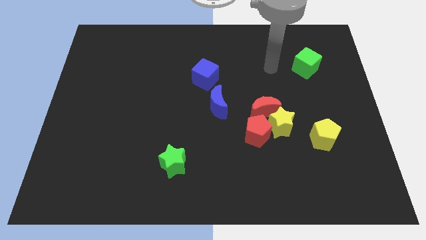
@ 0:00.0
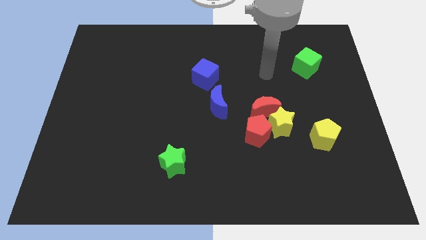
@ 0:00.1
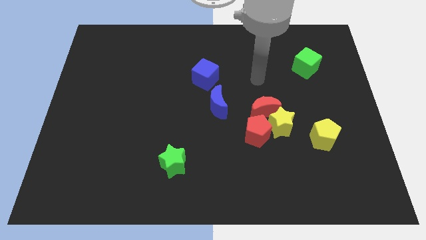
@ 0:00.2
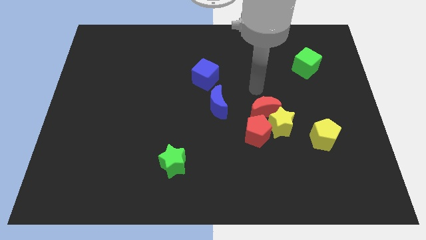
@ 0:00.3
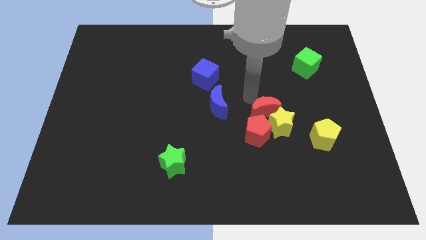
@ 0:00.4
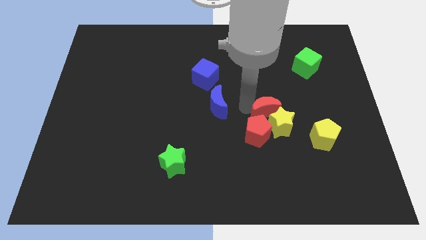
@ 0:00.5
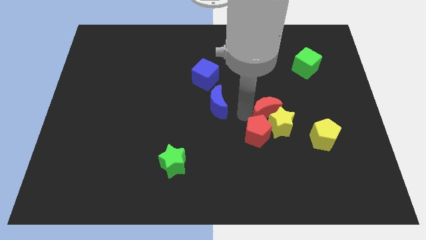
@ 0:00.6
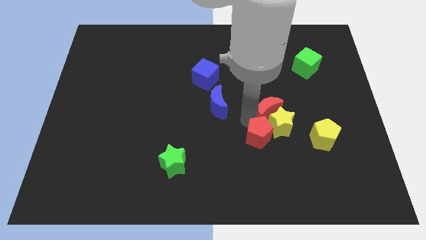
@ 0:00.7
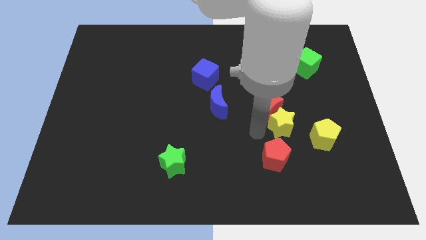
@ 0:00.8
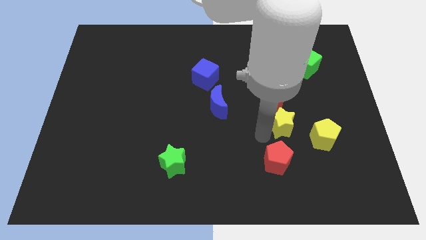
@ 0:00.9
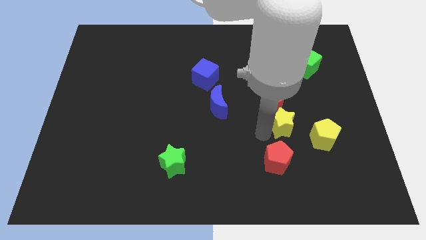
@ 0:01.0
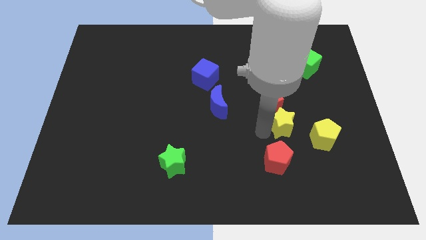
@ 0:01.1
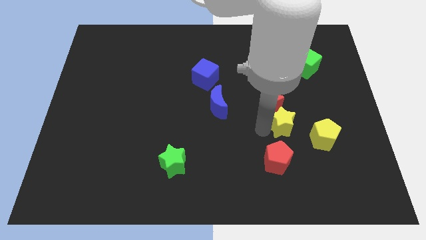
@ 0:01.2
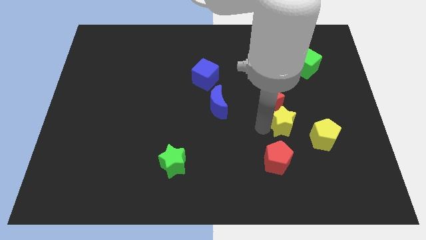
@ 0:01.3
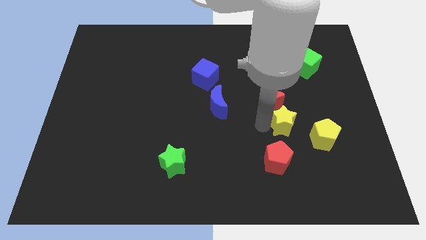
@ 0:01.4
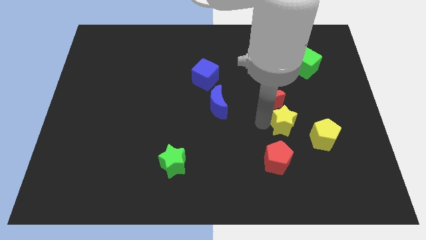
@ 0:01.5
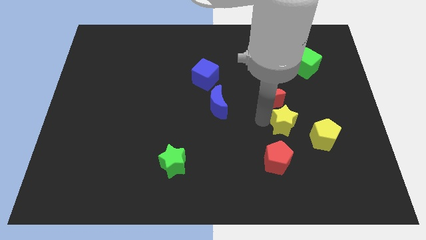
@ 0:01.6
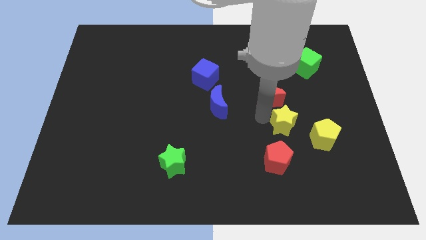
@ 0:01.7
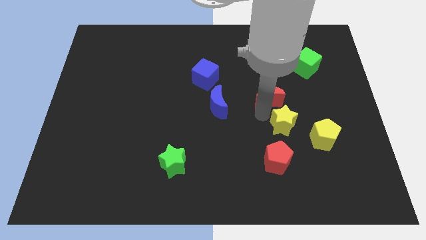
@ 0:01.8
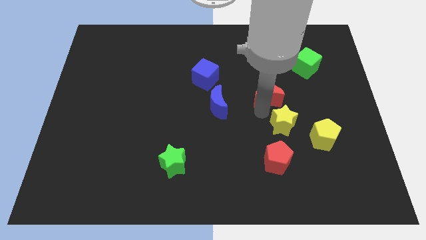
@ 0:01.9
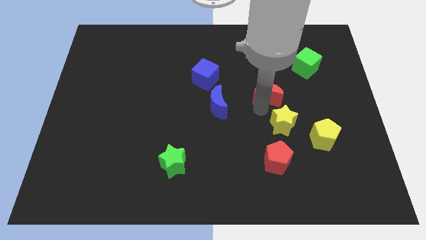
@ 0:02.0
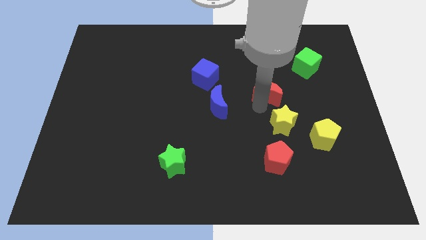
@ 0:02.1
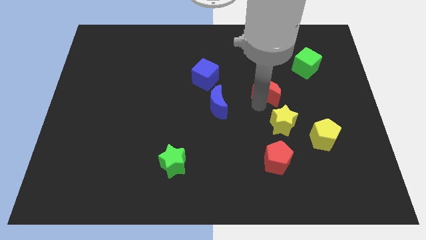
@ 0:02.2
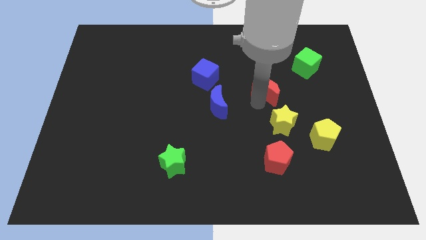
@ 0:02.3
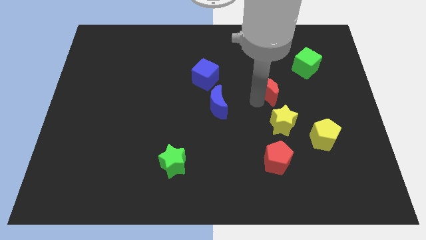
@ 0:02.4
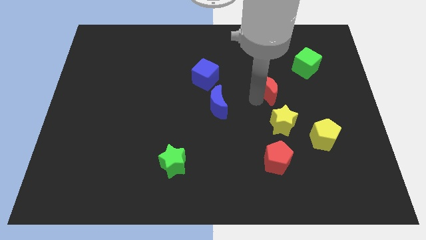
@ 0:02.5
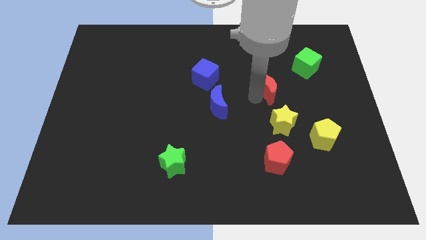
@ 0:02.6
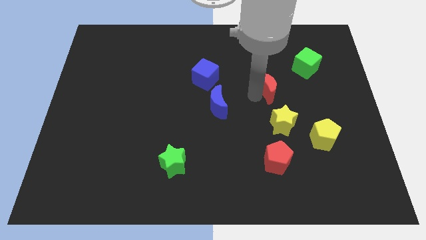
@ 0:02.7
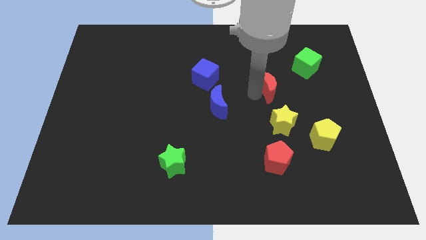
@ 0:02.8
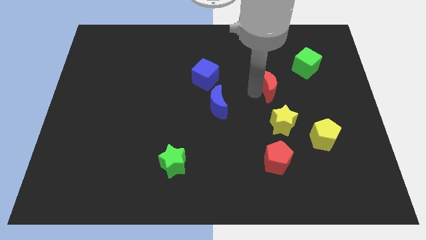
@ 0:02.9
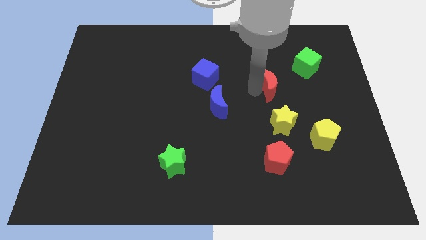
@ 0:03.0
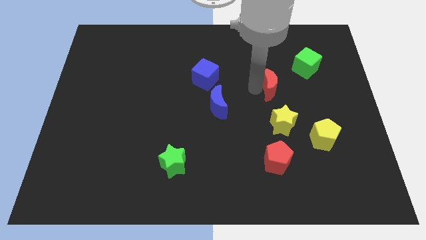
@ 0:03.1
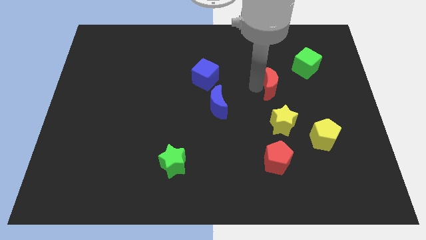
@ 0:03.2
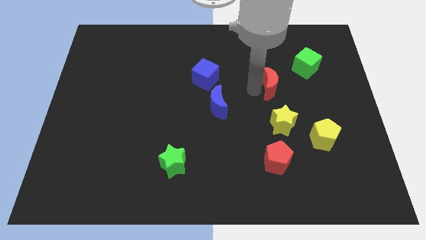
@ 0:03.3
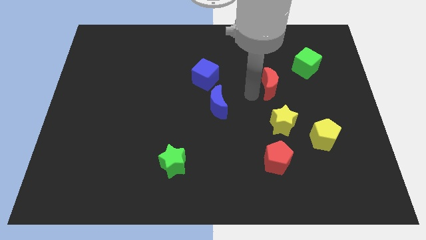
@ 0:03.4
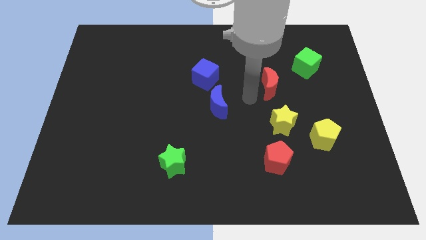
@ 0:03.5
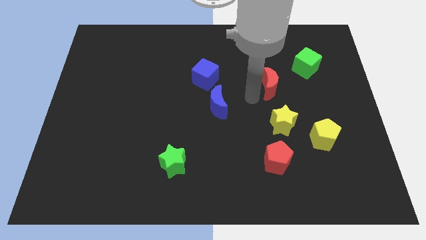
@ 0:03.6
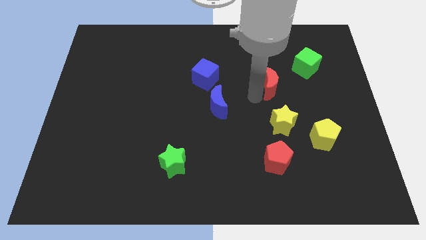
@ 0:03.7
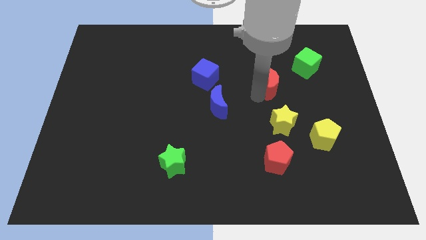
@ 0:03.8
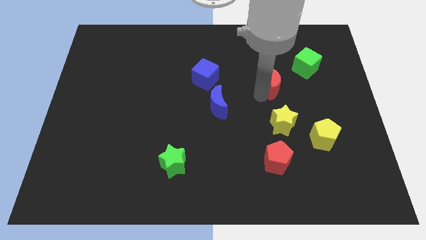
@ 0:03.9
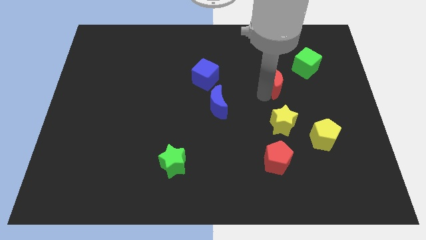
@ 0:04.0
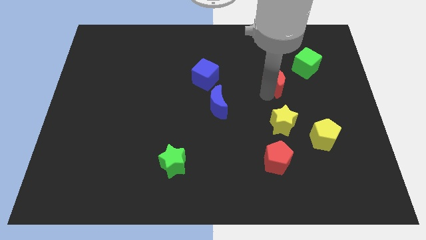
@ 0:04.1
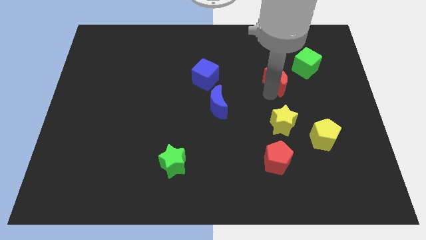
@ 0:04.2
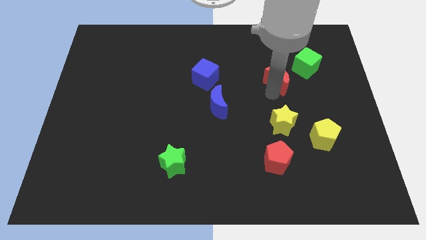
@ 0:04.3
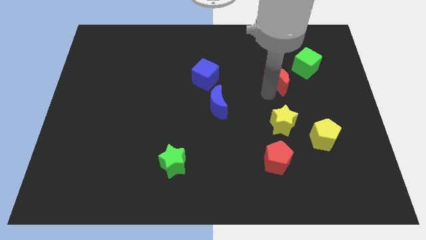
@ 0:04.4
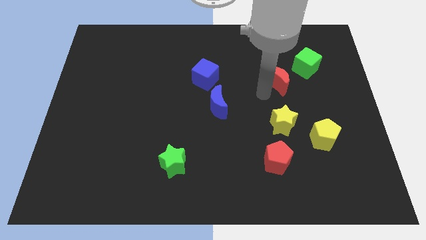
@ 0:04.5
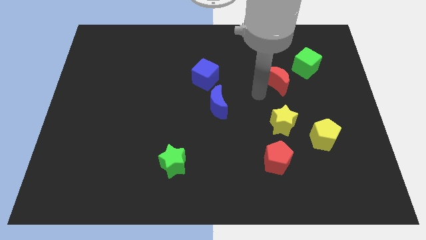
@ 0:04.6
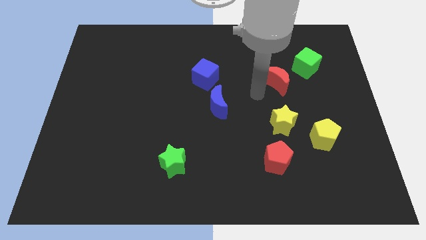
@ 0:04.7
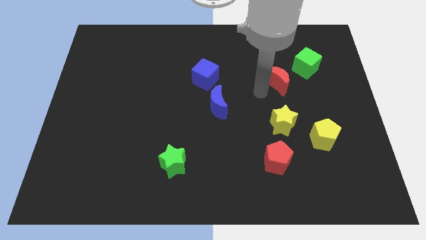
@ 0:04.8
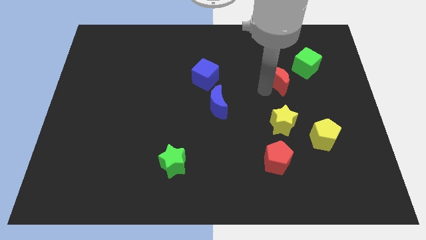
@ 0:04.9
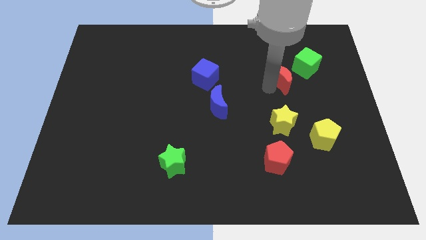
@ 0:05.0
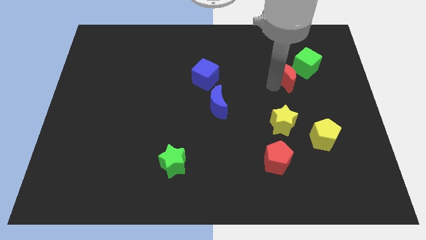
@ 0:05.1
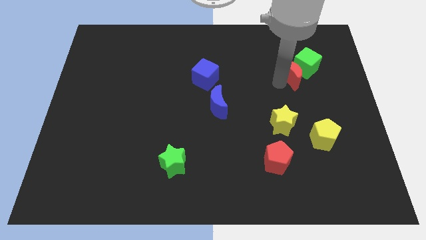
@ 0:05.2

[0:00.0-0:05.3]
slide the red moon close to the green cube

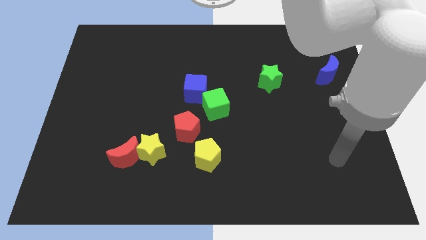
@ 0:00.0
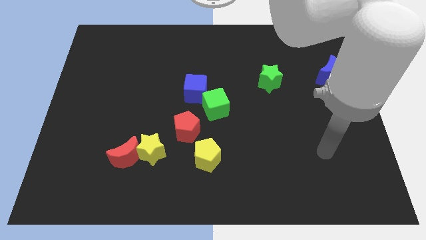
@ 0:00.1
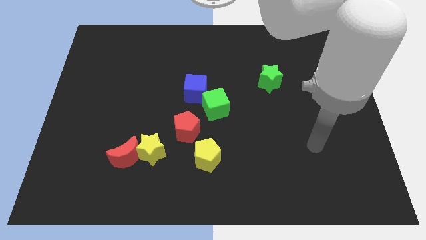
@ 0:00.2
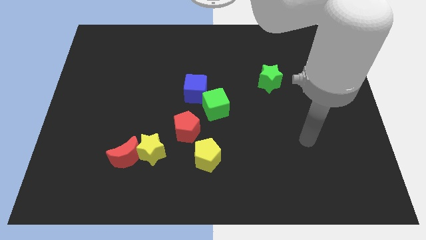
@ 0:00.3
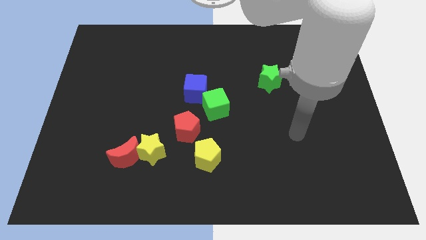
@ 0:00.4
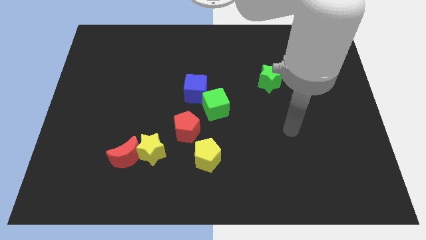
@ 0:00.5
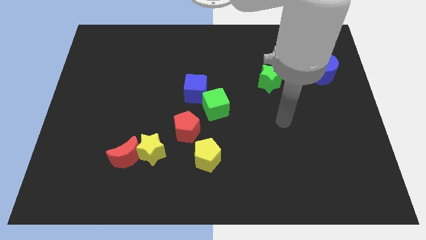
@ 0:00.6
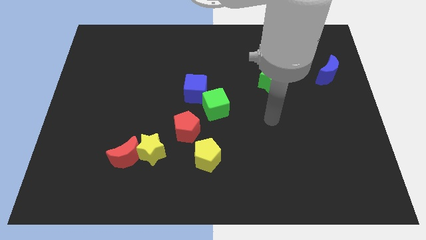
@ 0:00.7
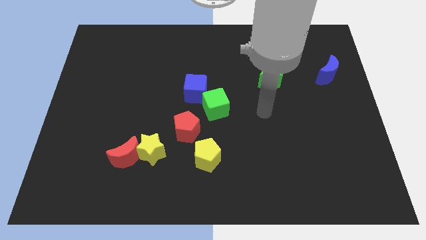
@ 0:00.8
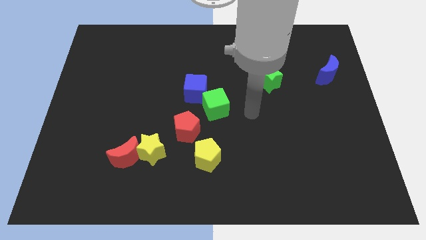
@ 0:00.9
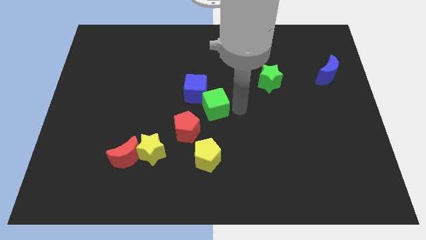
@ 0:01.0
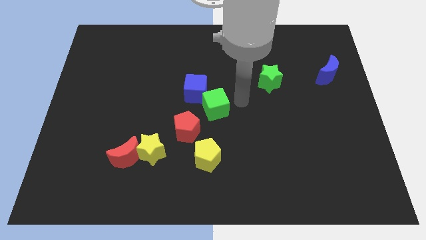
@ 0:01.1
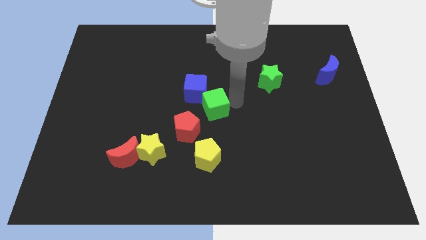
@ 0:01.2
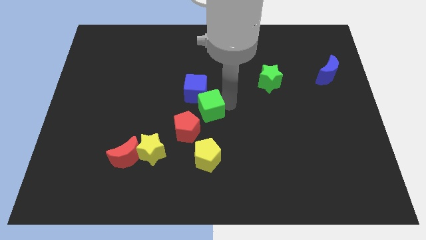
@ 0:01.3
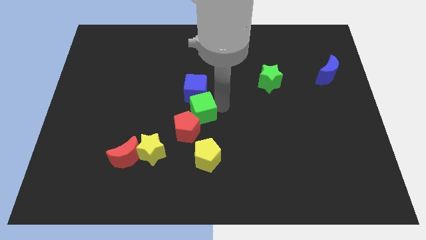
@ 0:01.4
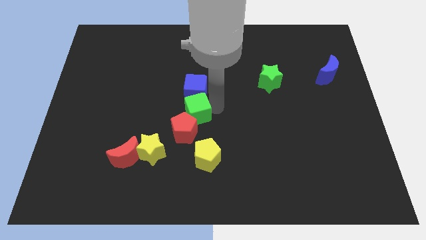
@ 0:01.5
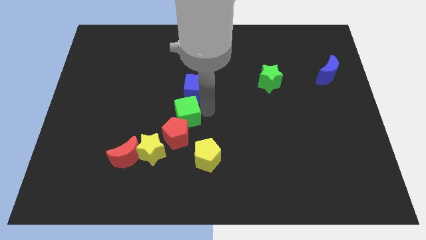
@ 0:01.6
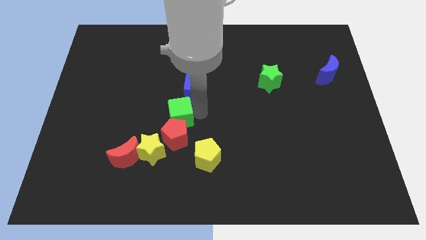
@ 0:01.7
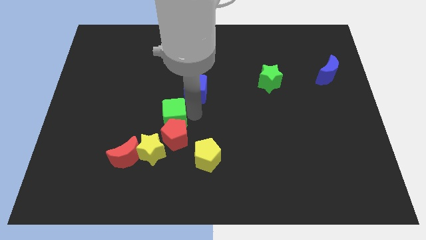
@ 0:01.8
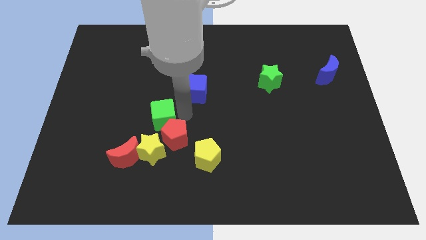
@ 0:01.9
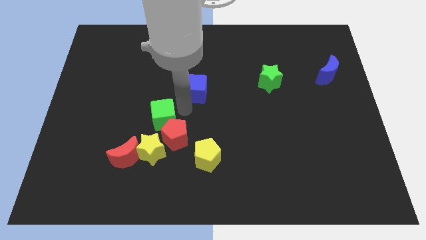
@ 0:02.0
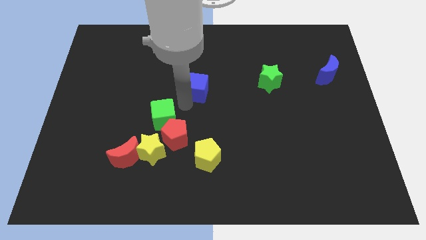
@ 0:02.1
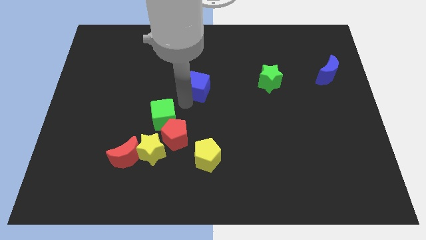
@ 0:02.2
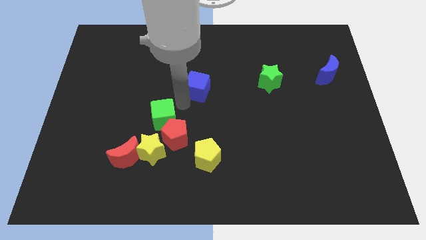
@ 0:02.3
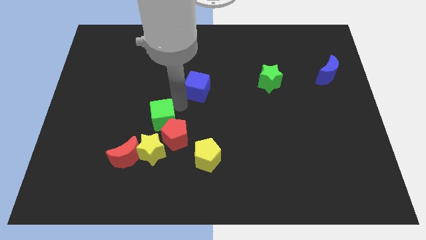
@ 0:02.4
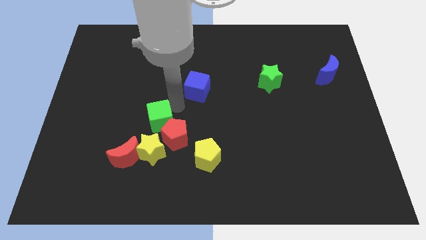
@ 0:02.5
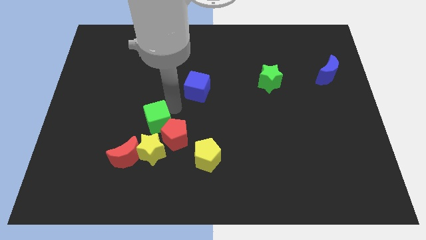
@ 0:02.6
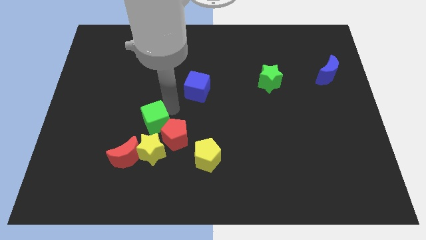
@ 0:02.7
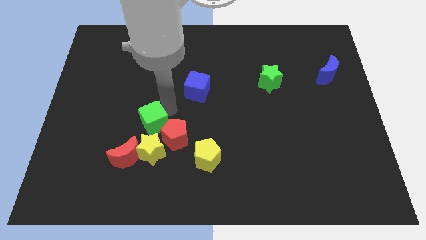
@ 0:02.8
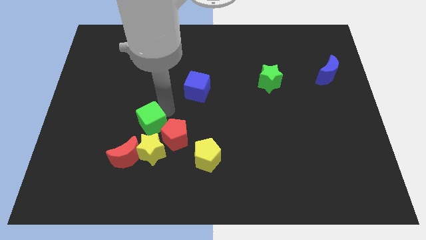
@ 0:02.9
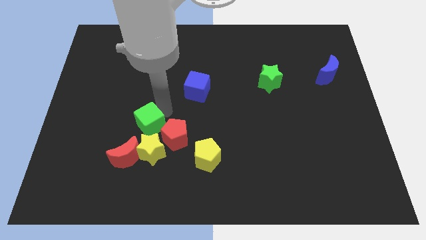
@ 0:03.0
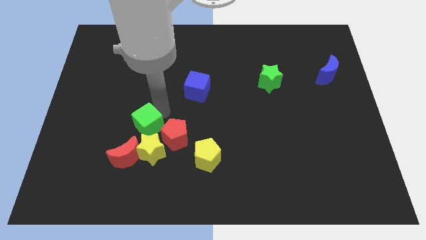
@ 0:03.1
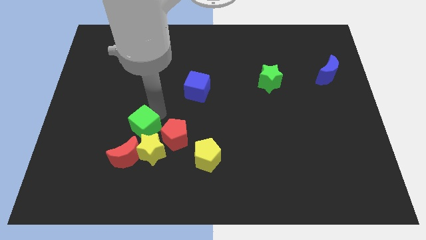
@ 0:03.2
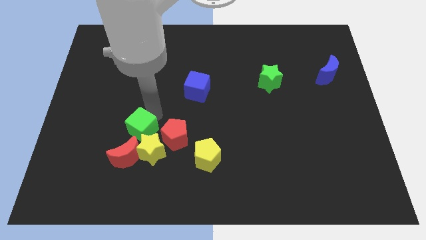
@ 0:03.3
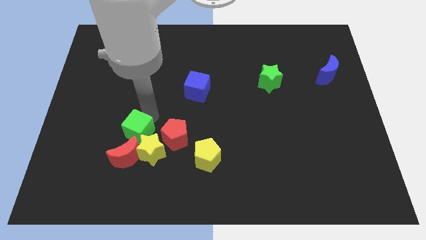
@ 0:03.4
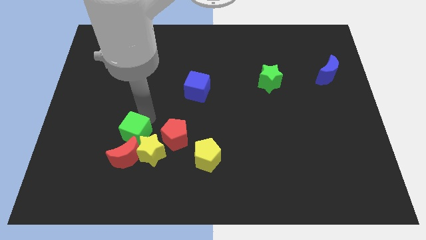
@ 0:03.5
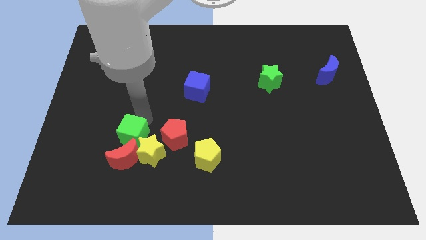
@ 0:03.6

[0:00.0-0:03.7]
put the green cube towards the red moon
